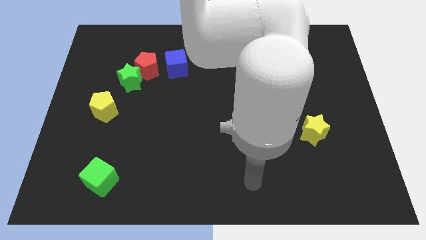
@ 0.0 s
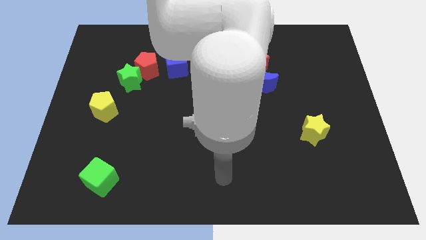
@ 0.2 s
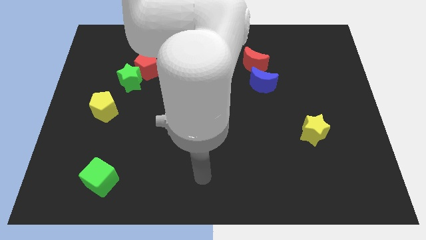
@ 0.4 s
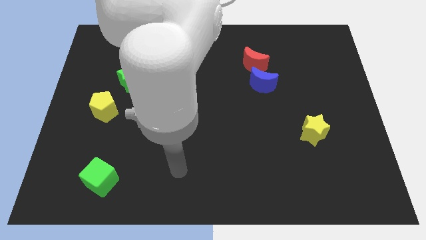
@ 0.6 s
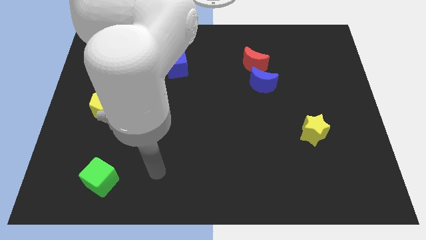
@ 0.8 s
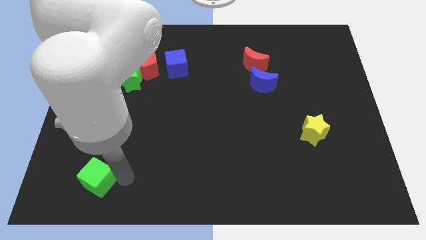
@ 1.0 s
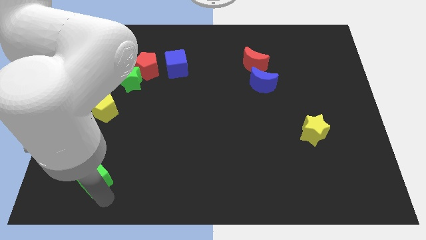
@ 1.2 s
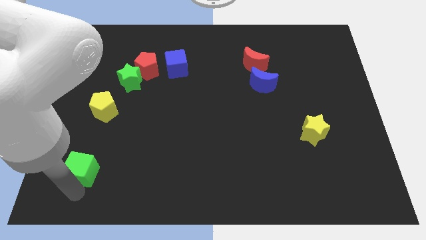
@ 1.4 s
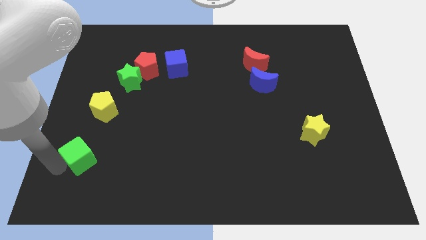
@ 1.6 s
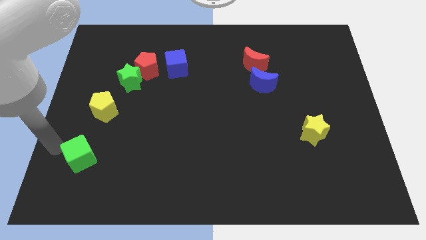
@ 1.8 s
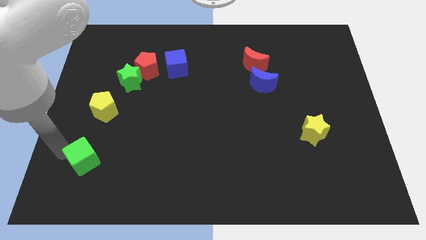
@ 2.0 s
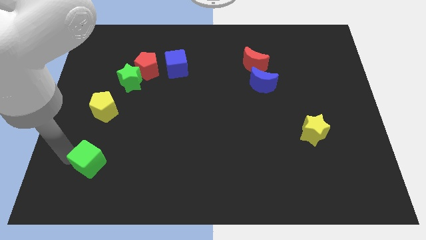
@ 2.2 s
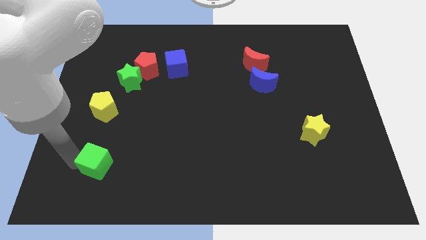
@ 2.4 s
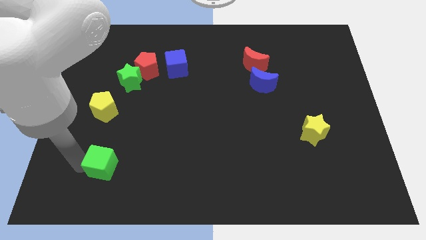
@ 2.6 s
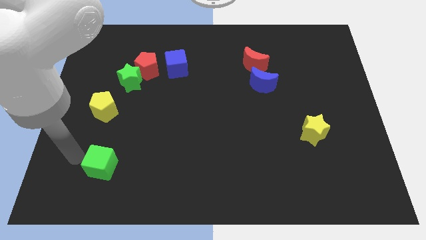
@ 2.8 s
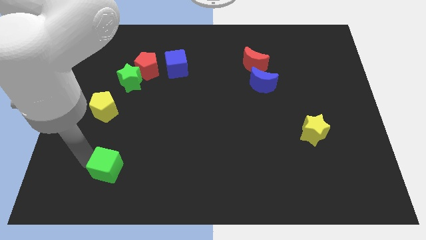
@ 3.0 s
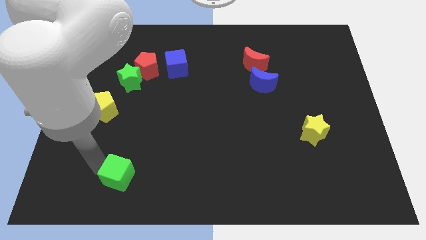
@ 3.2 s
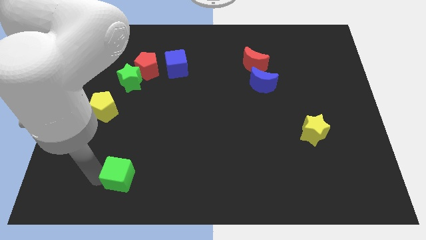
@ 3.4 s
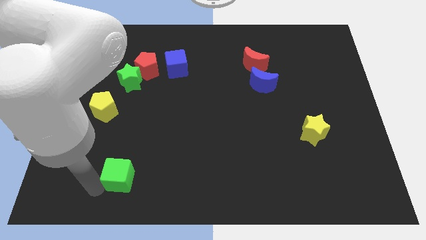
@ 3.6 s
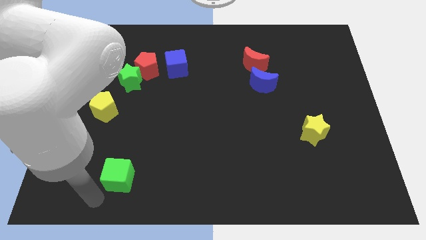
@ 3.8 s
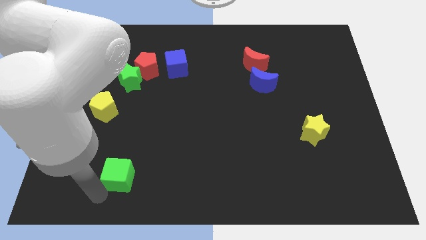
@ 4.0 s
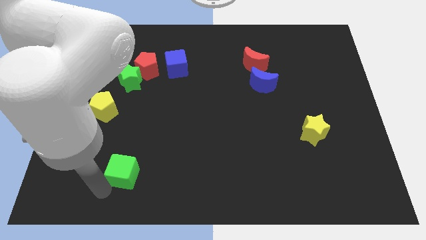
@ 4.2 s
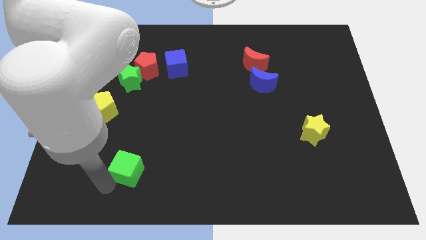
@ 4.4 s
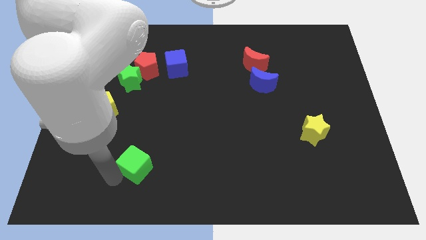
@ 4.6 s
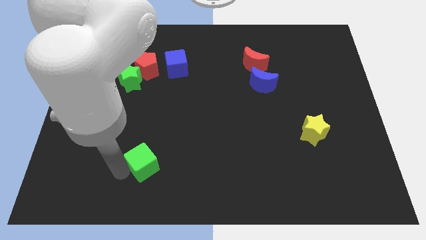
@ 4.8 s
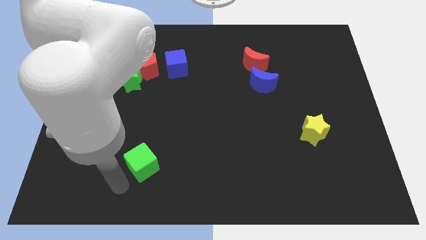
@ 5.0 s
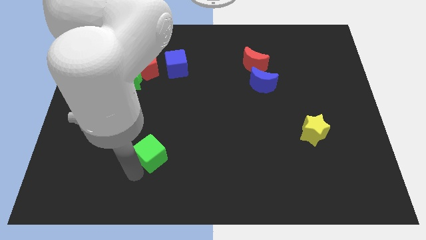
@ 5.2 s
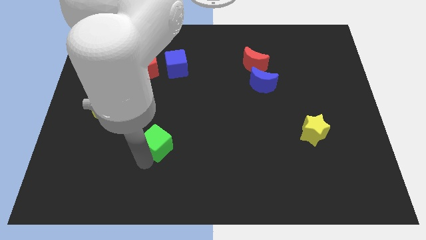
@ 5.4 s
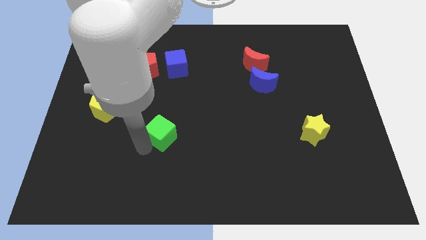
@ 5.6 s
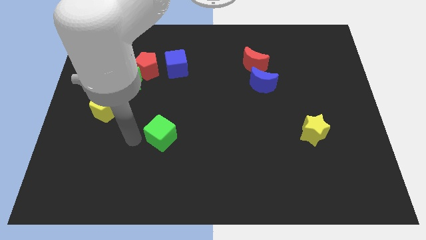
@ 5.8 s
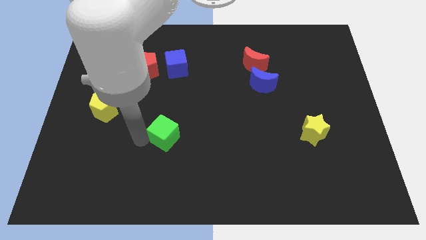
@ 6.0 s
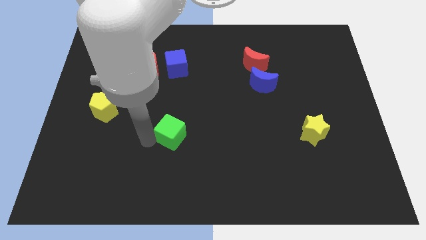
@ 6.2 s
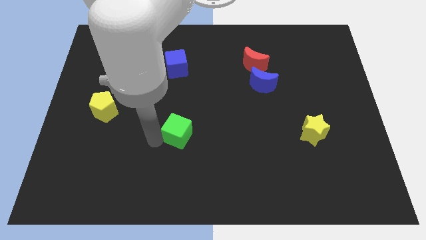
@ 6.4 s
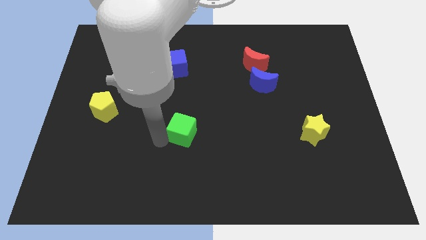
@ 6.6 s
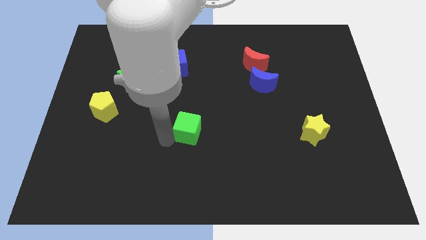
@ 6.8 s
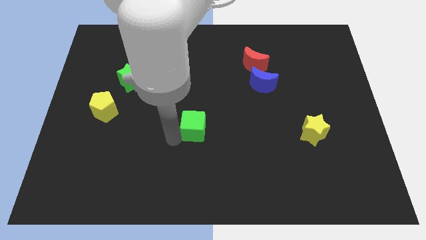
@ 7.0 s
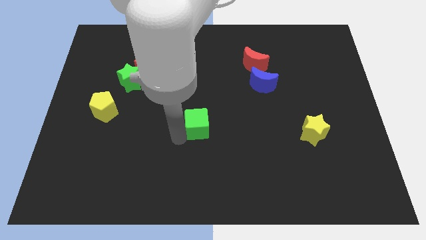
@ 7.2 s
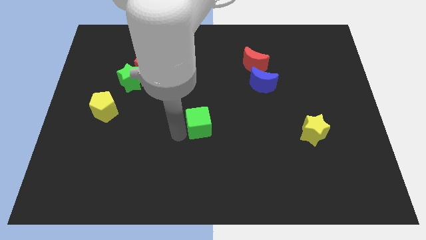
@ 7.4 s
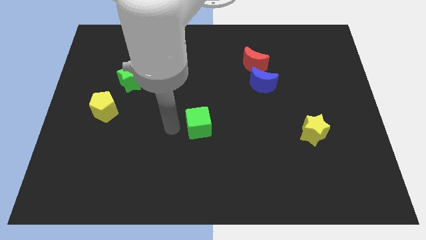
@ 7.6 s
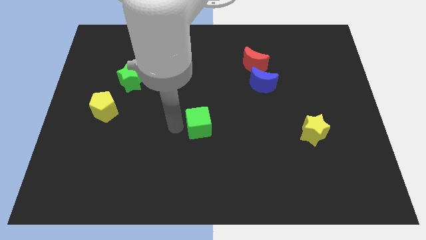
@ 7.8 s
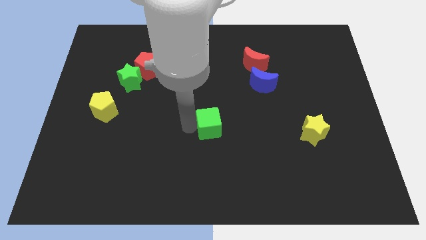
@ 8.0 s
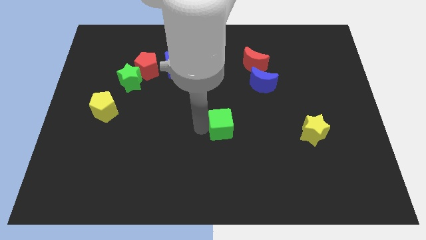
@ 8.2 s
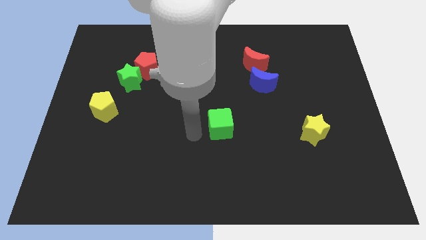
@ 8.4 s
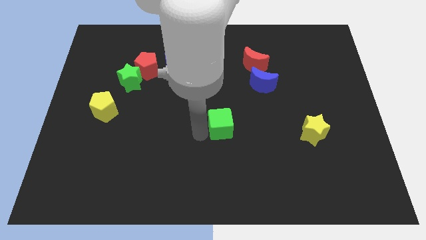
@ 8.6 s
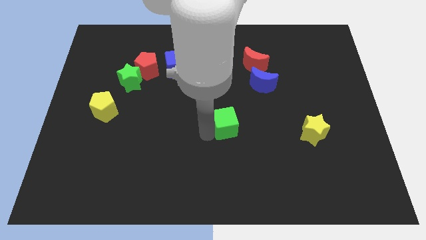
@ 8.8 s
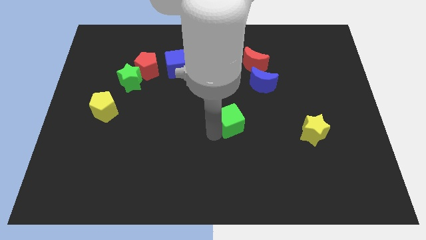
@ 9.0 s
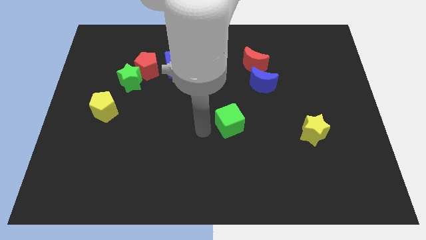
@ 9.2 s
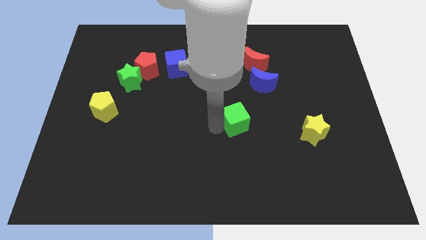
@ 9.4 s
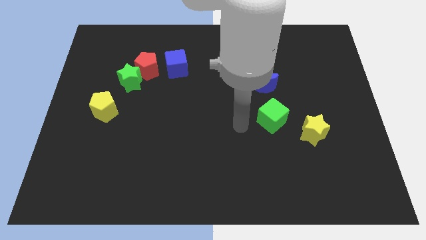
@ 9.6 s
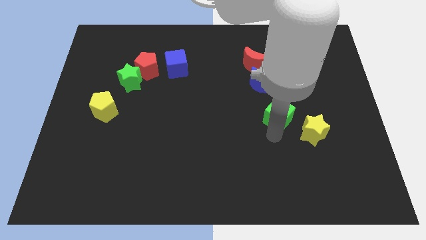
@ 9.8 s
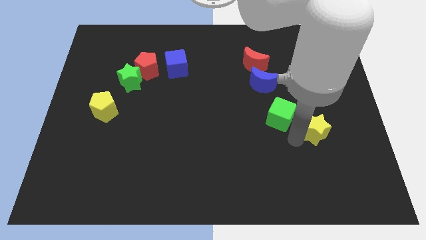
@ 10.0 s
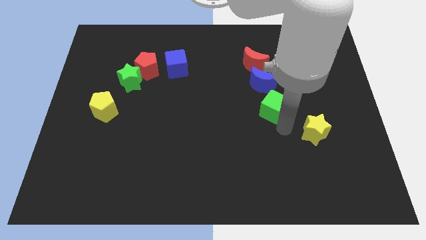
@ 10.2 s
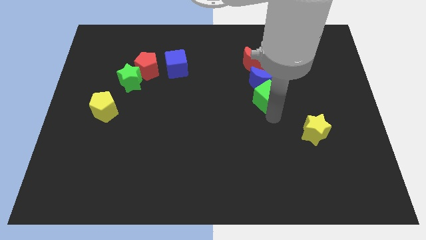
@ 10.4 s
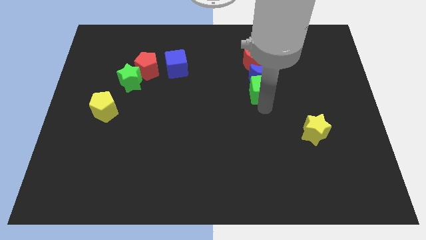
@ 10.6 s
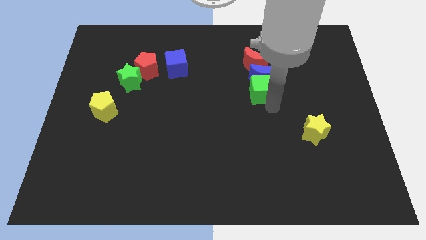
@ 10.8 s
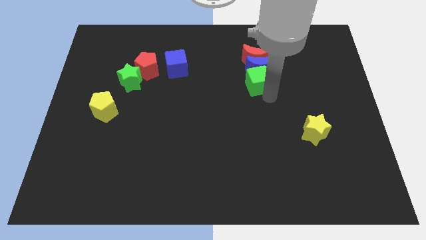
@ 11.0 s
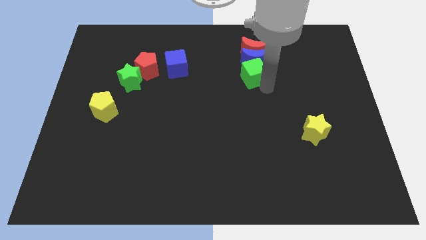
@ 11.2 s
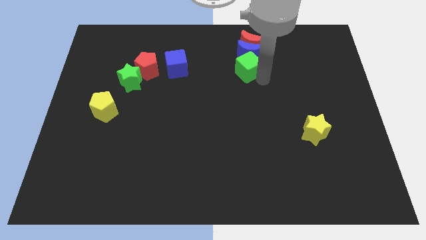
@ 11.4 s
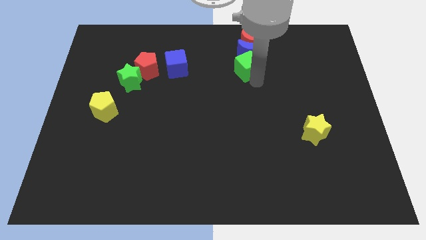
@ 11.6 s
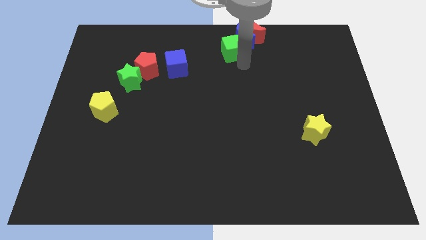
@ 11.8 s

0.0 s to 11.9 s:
push the green cube to the top side
